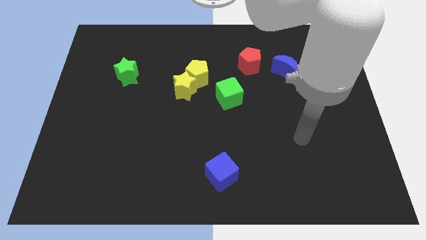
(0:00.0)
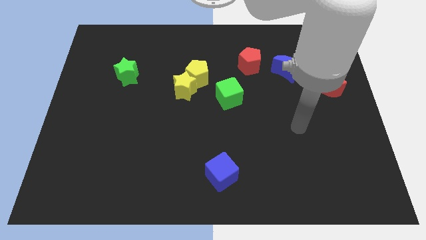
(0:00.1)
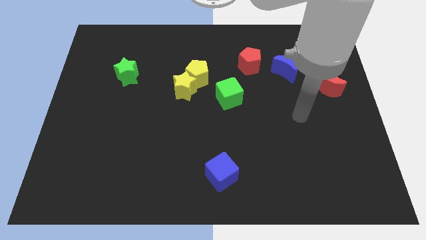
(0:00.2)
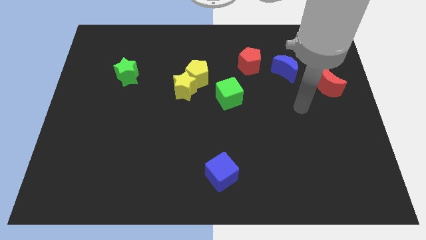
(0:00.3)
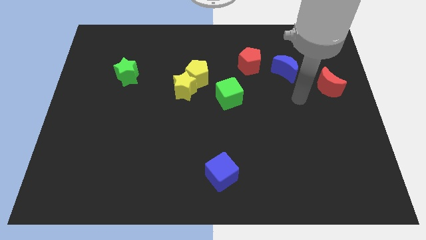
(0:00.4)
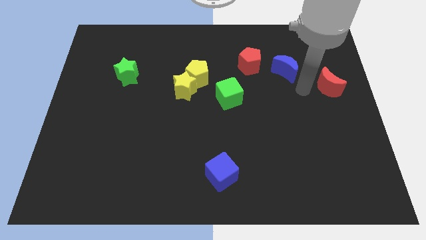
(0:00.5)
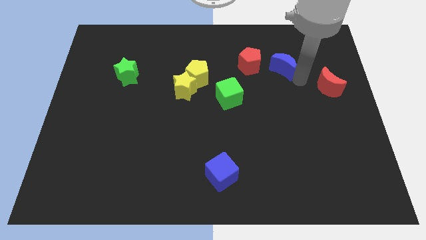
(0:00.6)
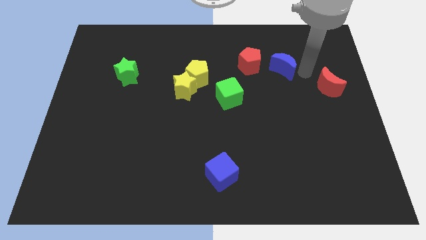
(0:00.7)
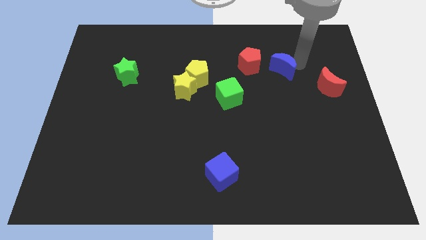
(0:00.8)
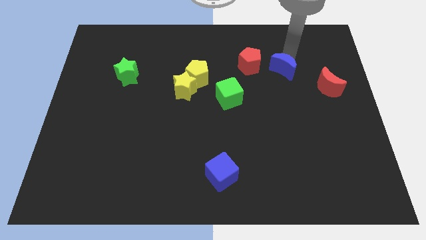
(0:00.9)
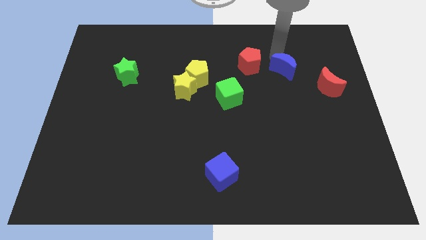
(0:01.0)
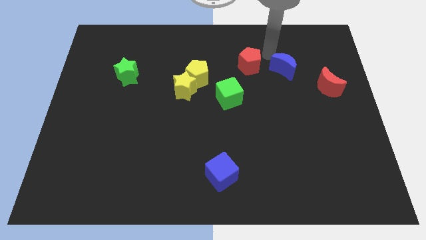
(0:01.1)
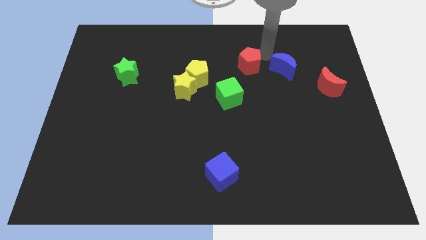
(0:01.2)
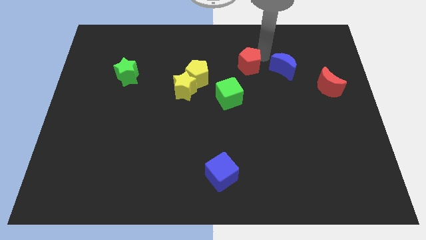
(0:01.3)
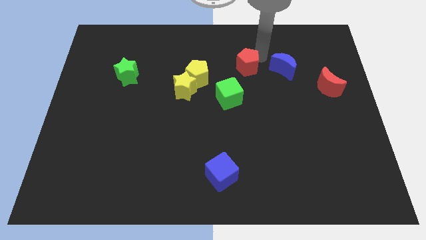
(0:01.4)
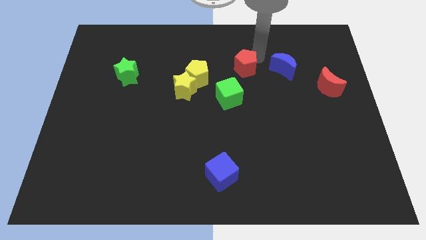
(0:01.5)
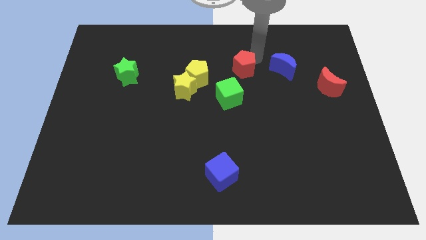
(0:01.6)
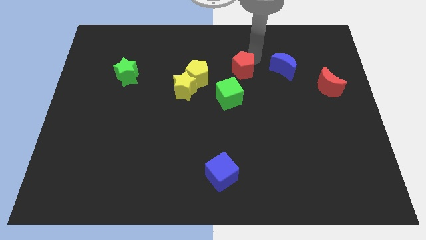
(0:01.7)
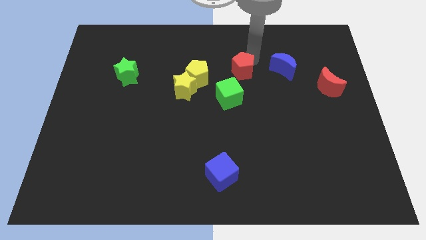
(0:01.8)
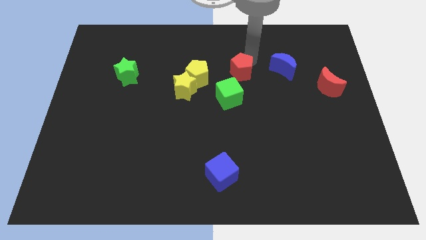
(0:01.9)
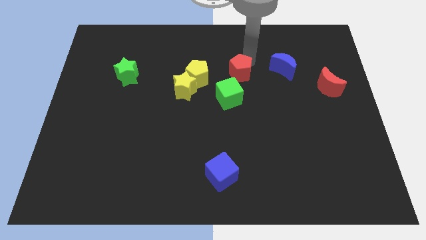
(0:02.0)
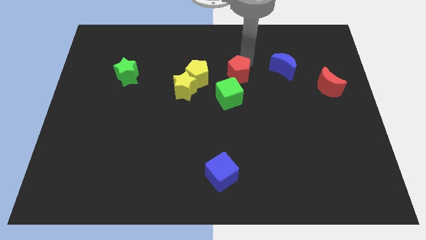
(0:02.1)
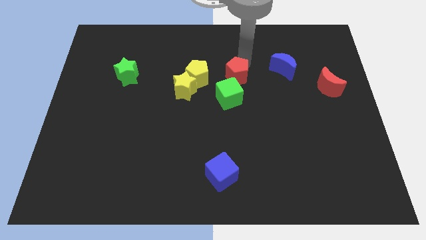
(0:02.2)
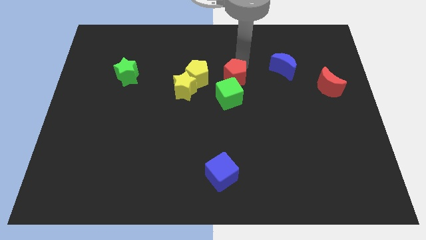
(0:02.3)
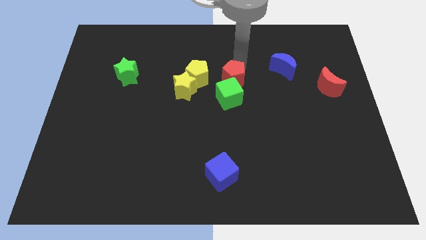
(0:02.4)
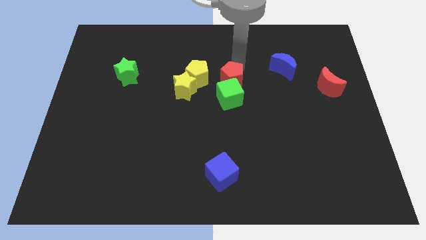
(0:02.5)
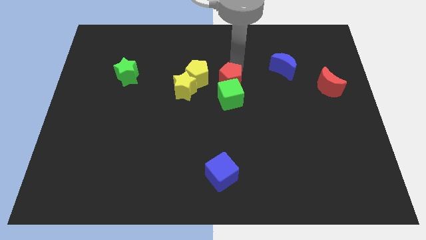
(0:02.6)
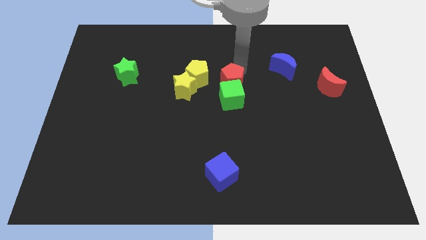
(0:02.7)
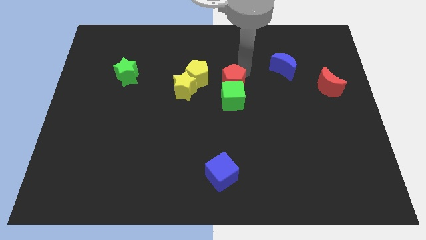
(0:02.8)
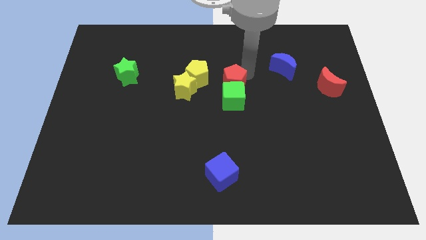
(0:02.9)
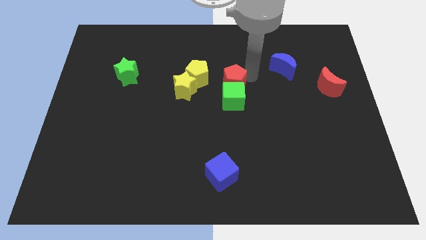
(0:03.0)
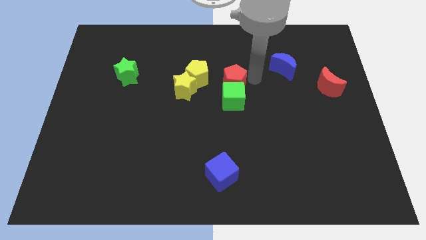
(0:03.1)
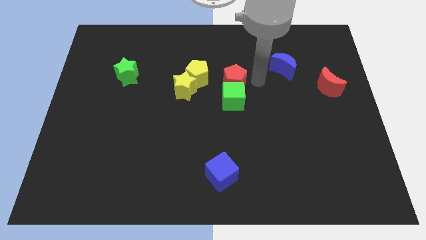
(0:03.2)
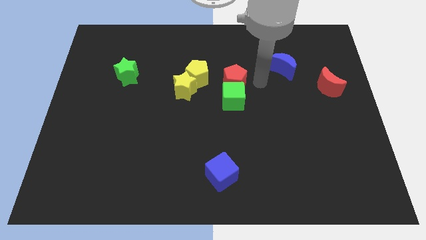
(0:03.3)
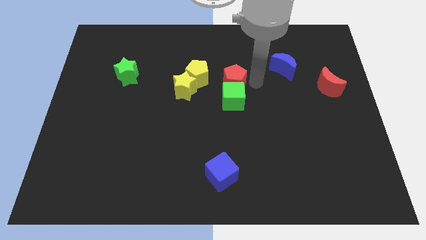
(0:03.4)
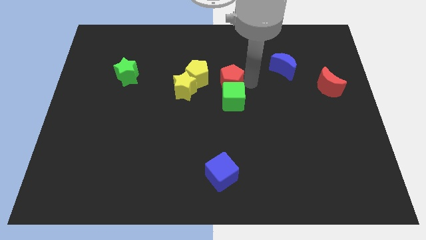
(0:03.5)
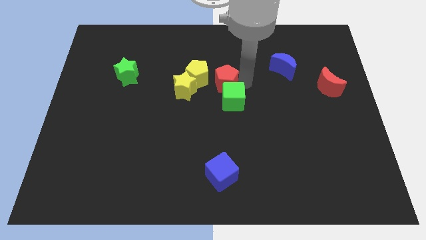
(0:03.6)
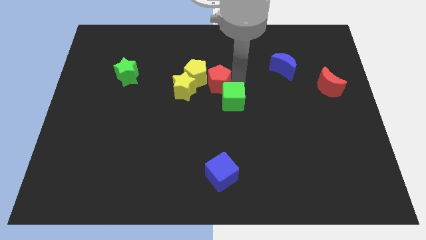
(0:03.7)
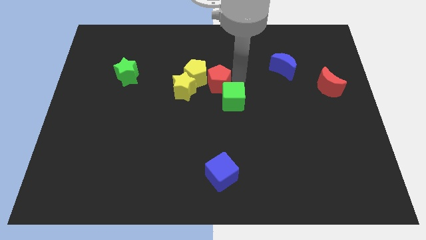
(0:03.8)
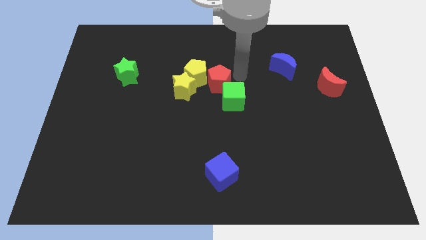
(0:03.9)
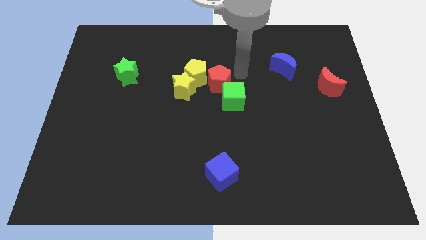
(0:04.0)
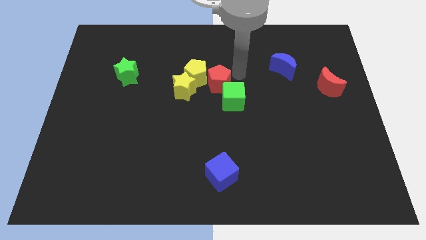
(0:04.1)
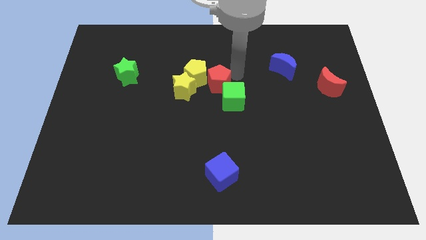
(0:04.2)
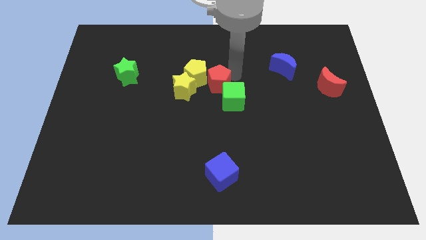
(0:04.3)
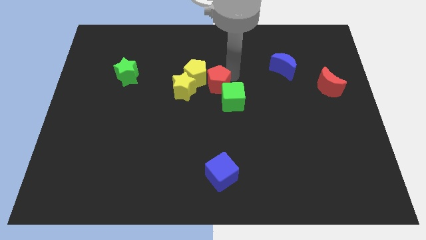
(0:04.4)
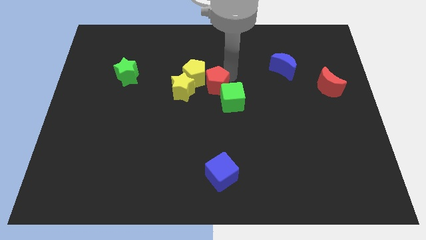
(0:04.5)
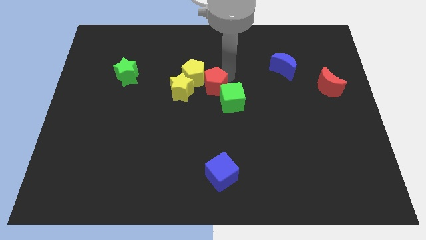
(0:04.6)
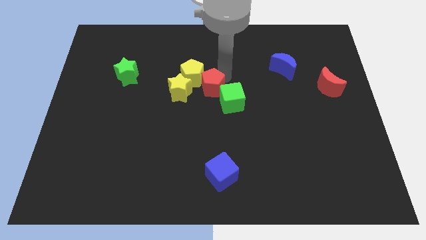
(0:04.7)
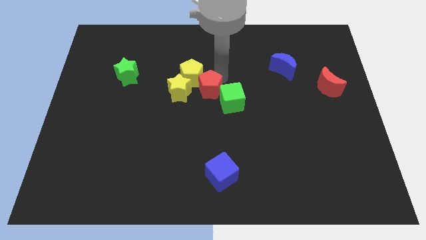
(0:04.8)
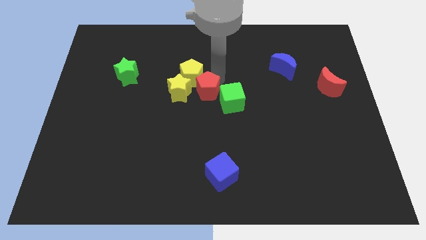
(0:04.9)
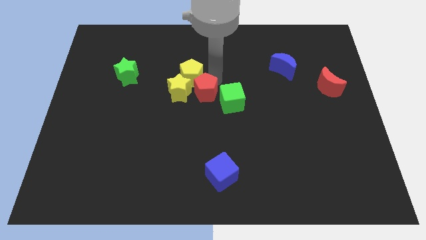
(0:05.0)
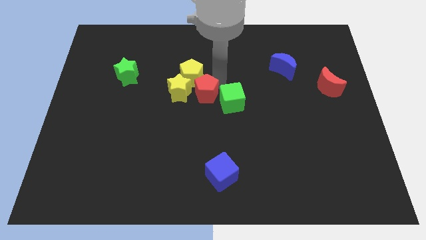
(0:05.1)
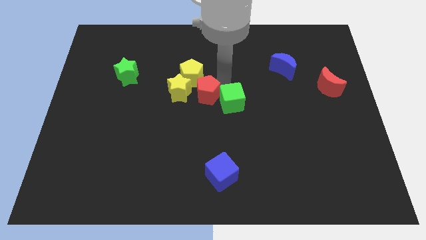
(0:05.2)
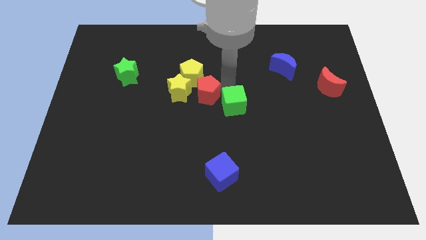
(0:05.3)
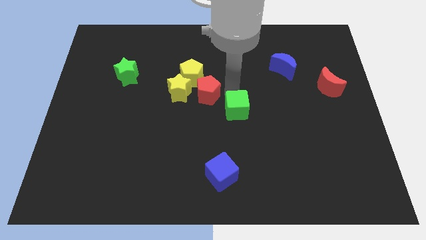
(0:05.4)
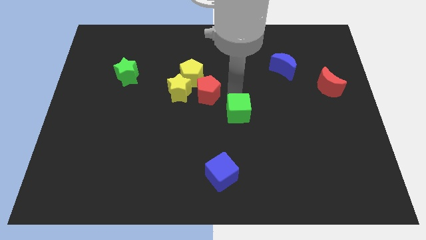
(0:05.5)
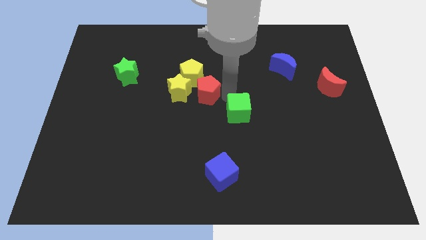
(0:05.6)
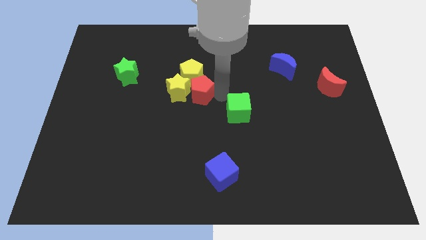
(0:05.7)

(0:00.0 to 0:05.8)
slide the red pentagon close to the yellow star

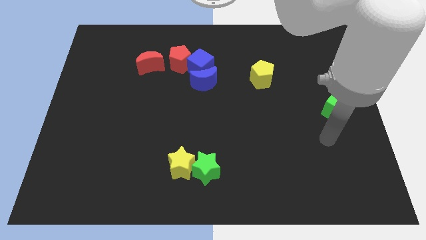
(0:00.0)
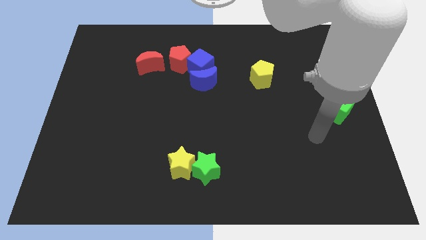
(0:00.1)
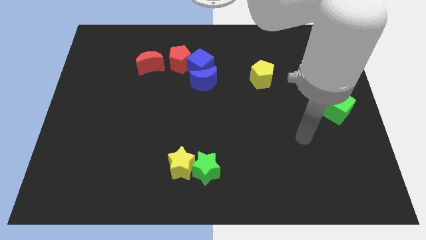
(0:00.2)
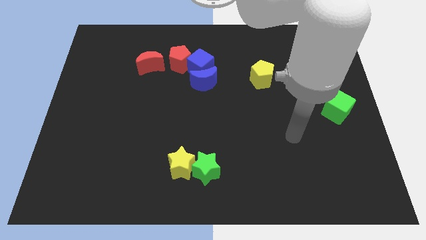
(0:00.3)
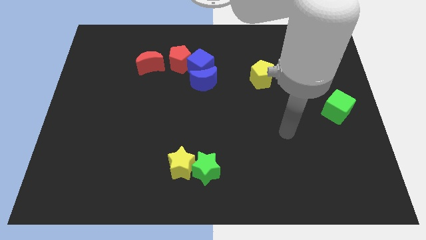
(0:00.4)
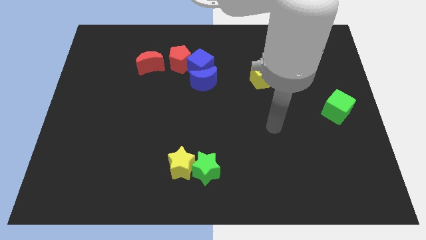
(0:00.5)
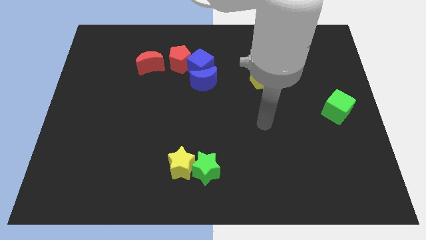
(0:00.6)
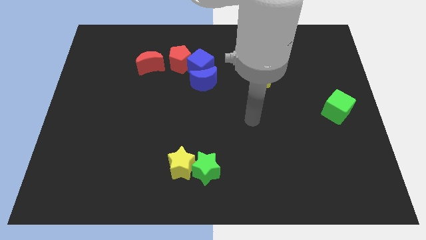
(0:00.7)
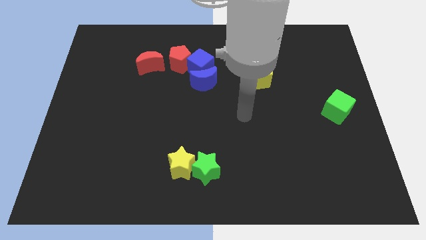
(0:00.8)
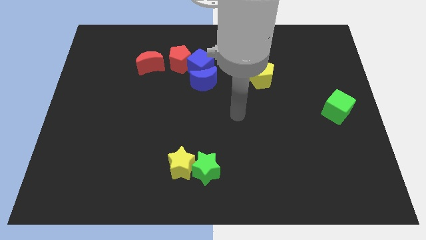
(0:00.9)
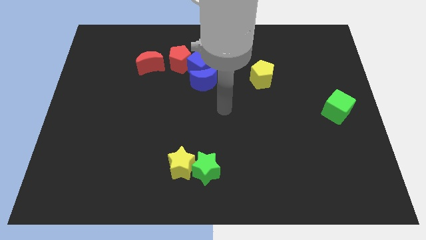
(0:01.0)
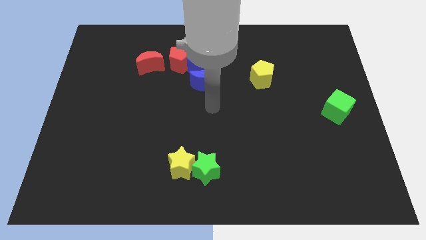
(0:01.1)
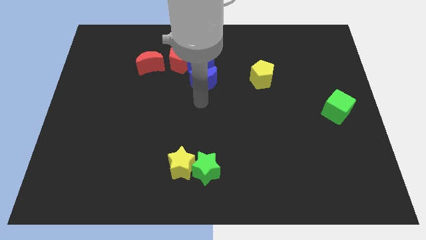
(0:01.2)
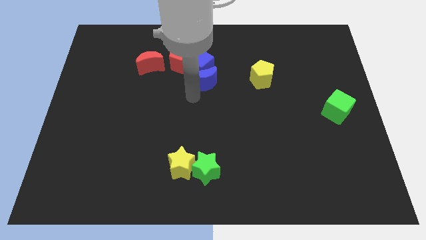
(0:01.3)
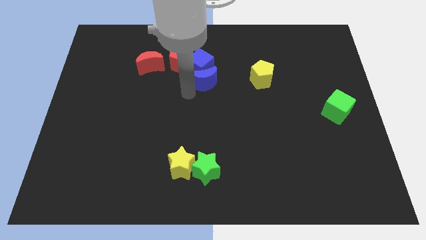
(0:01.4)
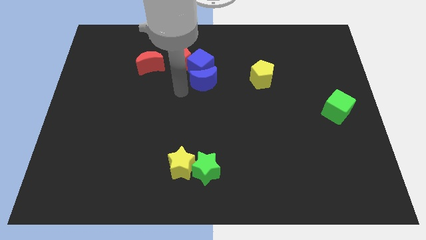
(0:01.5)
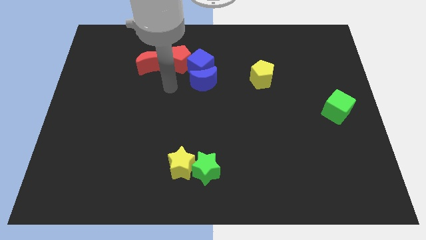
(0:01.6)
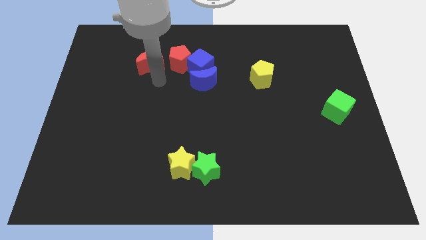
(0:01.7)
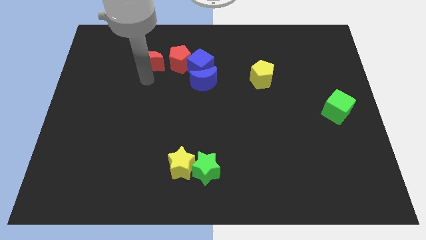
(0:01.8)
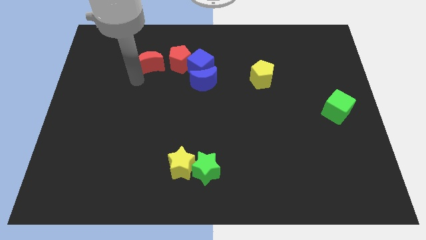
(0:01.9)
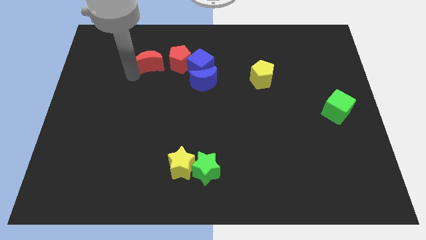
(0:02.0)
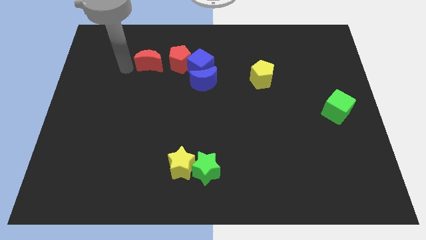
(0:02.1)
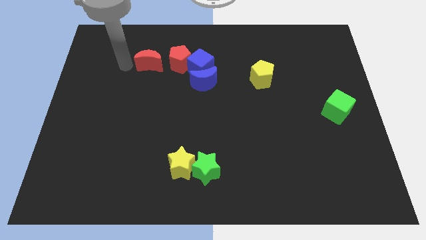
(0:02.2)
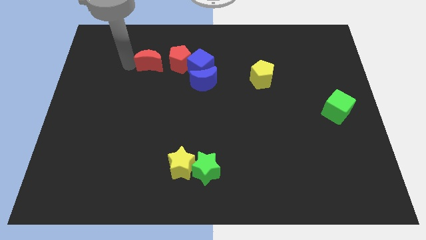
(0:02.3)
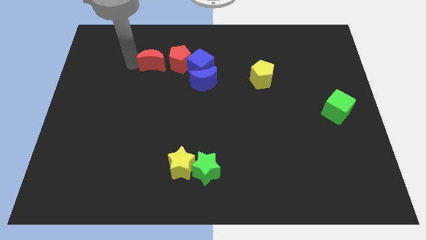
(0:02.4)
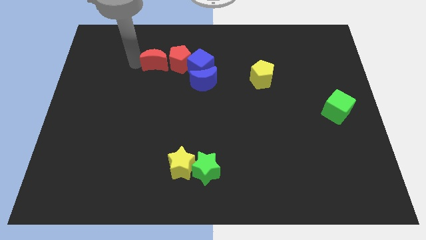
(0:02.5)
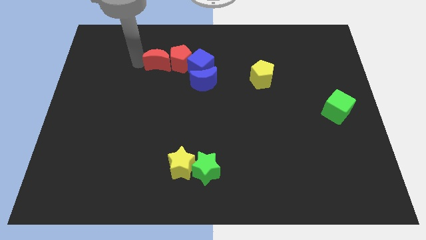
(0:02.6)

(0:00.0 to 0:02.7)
move the red moon towards the red pentagon
